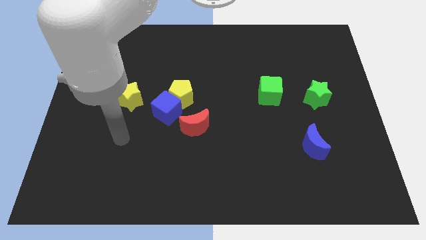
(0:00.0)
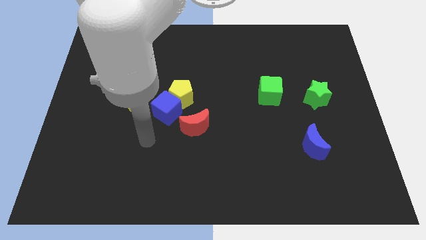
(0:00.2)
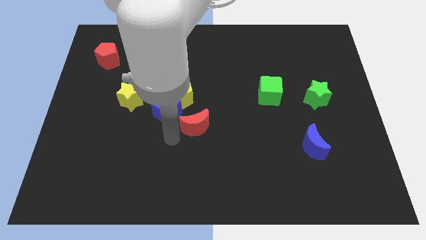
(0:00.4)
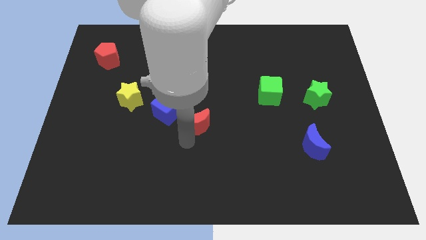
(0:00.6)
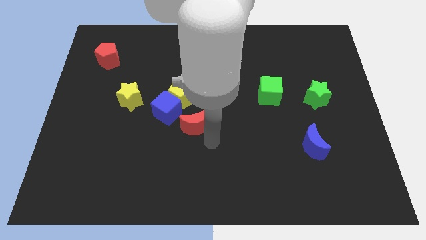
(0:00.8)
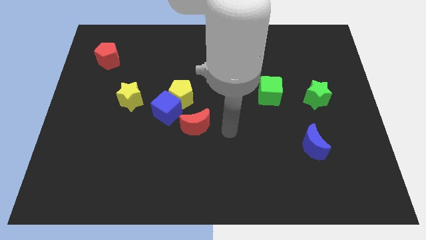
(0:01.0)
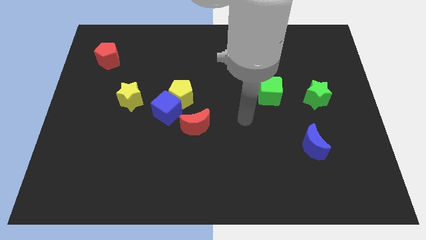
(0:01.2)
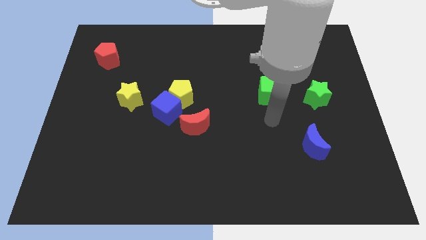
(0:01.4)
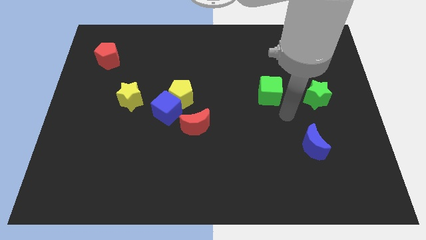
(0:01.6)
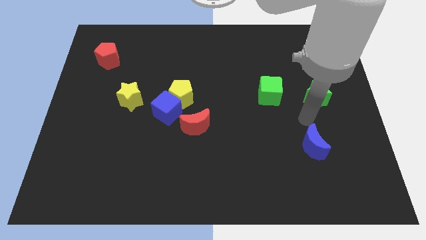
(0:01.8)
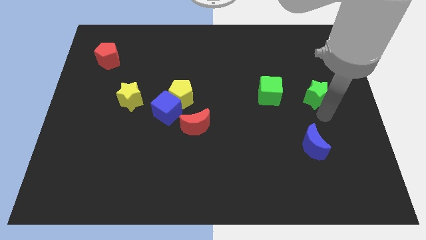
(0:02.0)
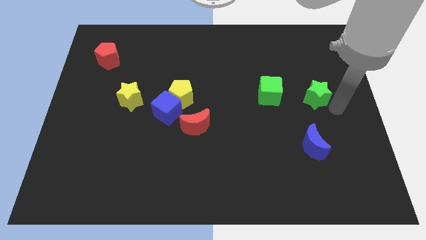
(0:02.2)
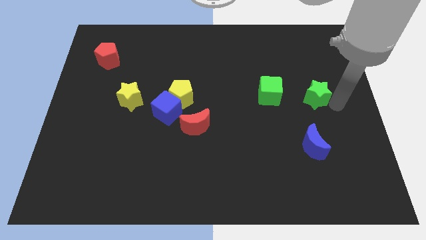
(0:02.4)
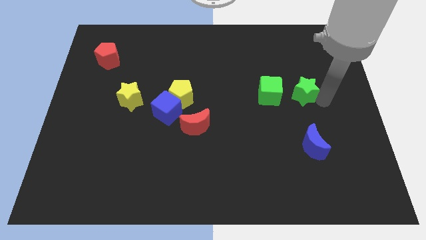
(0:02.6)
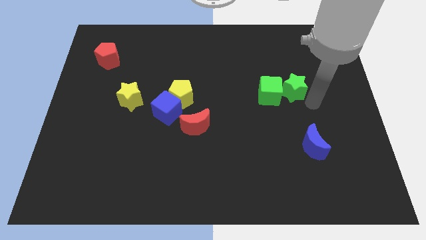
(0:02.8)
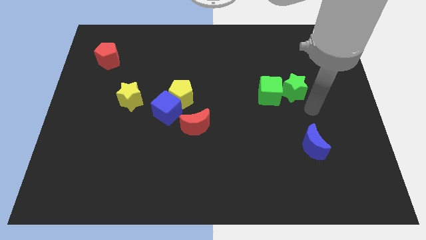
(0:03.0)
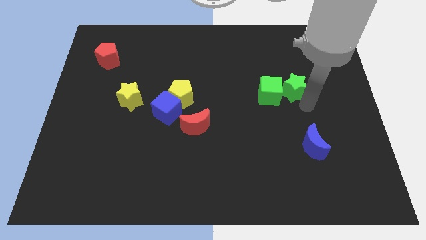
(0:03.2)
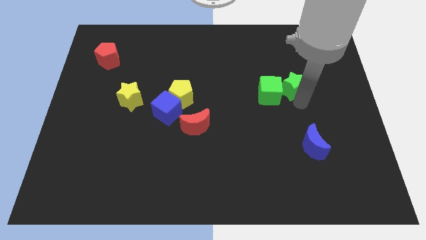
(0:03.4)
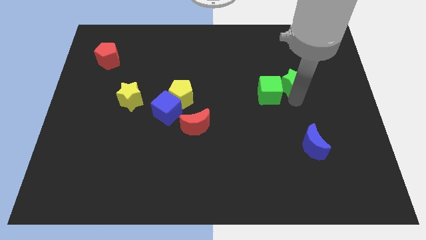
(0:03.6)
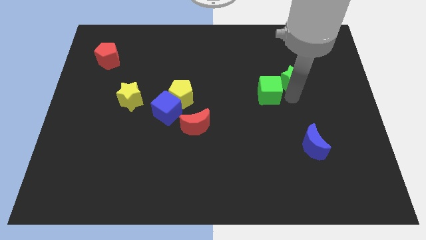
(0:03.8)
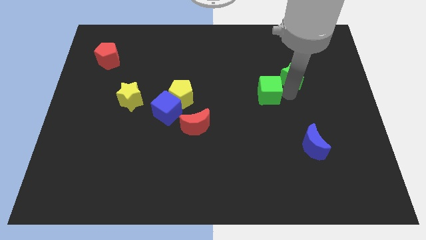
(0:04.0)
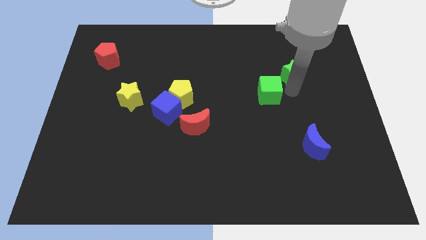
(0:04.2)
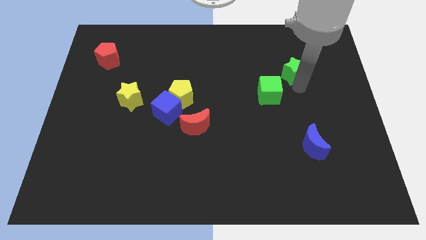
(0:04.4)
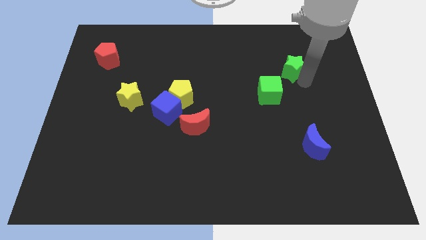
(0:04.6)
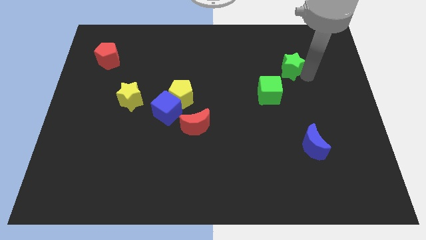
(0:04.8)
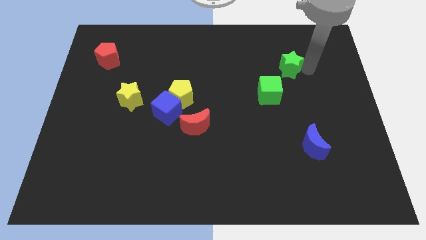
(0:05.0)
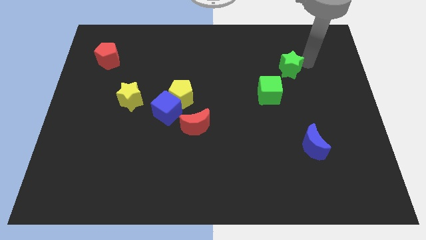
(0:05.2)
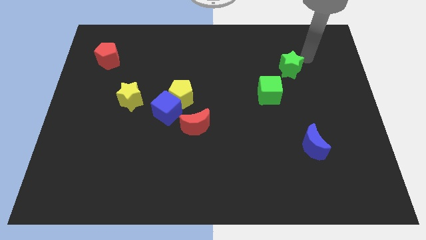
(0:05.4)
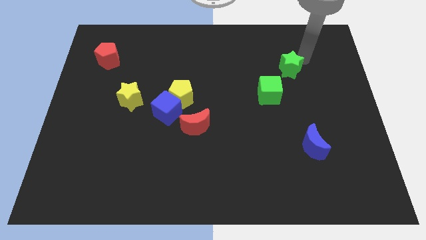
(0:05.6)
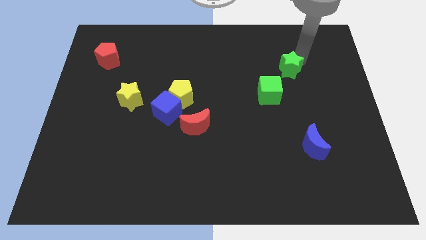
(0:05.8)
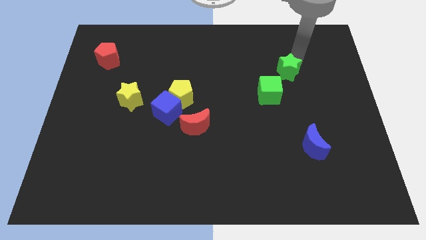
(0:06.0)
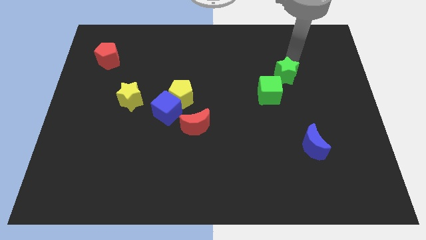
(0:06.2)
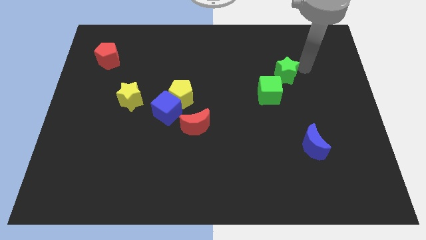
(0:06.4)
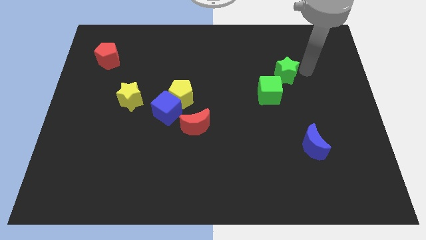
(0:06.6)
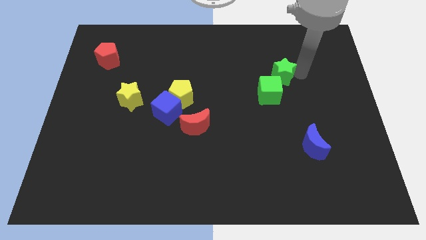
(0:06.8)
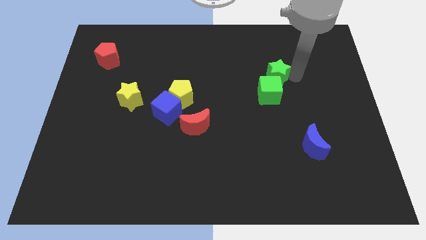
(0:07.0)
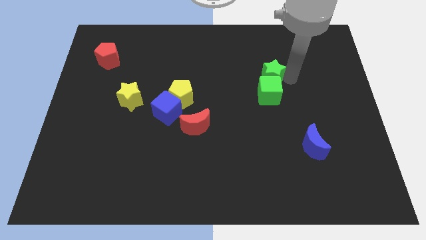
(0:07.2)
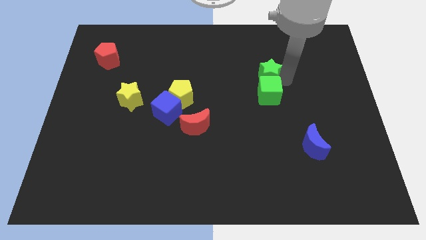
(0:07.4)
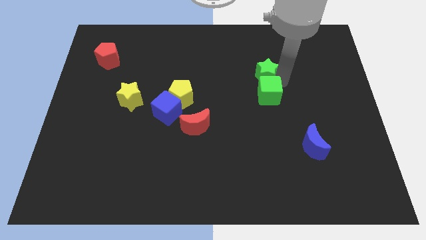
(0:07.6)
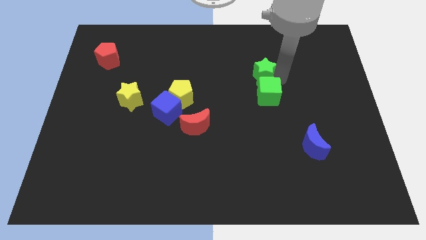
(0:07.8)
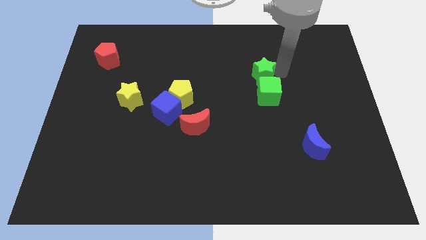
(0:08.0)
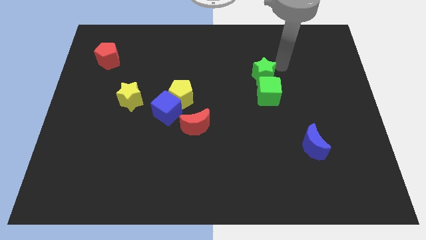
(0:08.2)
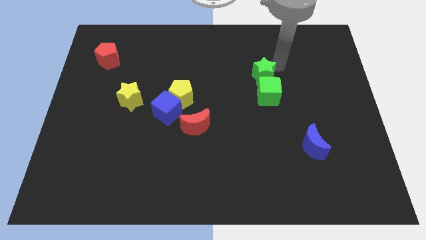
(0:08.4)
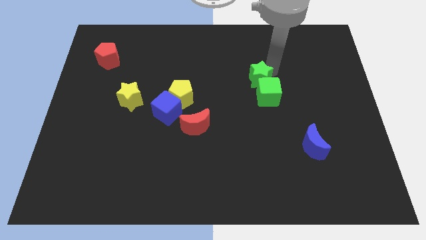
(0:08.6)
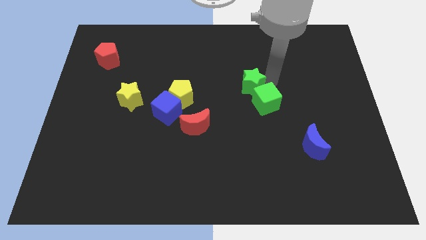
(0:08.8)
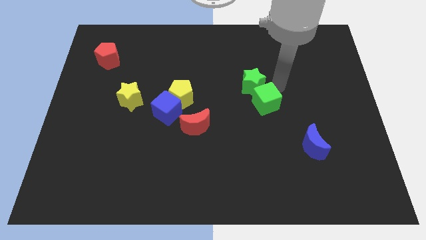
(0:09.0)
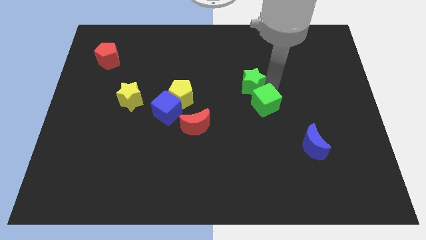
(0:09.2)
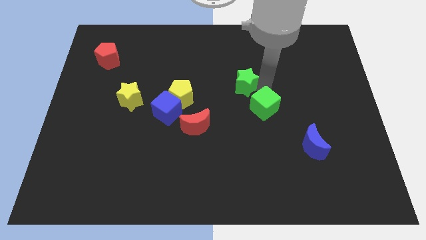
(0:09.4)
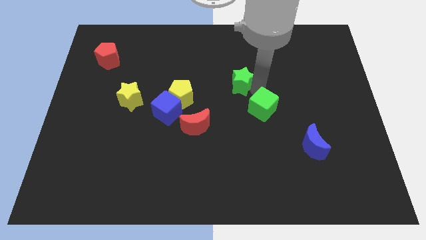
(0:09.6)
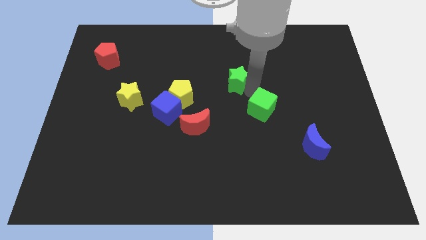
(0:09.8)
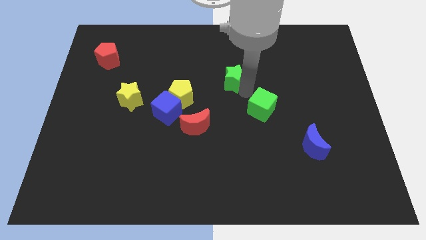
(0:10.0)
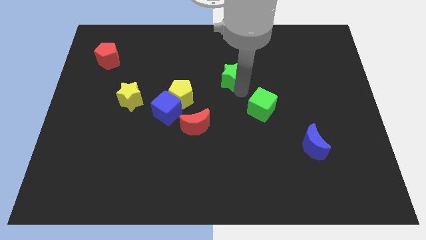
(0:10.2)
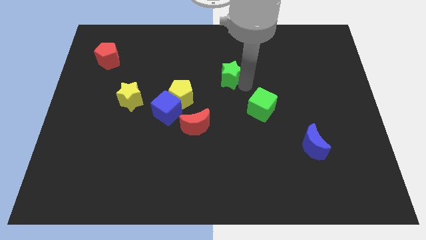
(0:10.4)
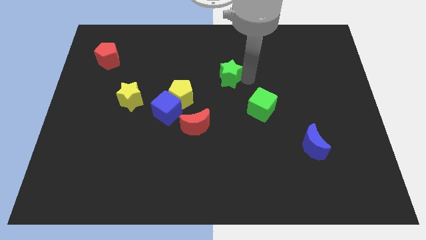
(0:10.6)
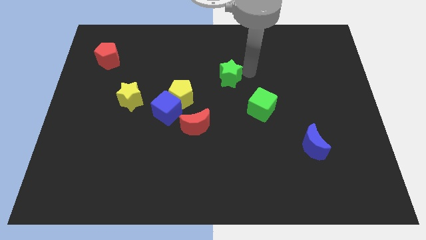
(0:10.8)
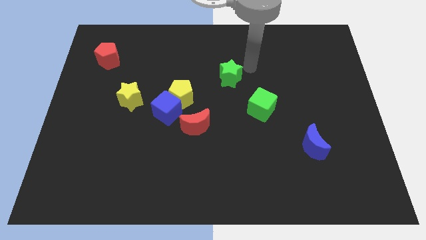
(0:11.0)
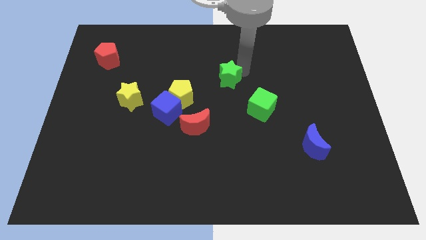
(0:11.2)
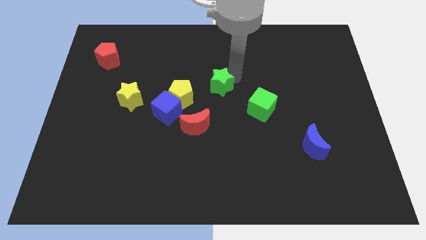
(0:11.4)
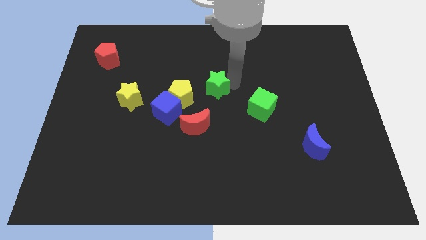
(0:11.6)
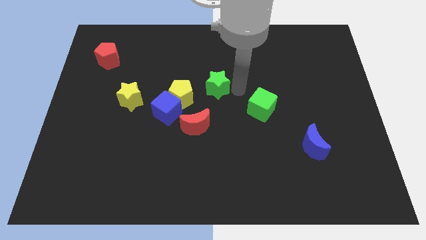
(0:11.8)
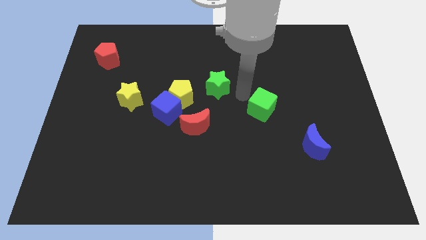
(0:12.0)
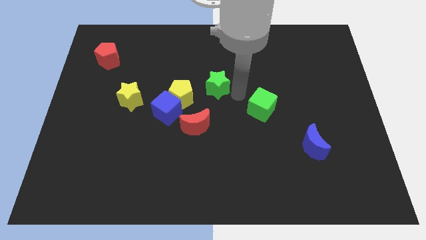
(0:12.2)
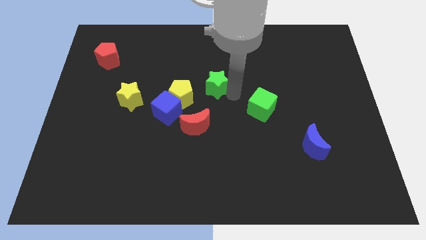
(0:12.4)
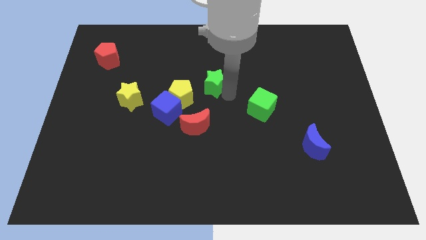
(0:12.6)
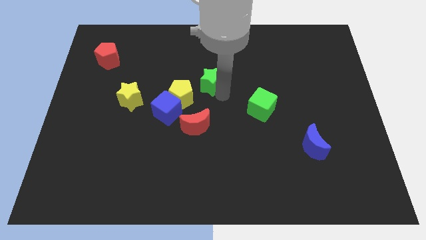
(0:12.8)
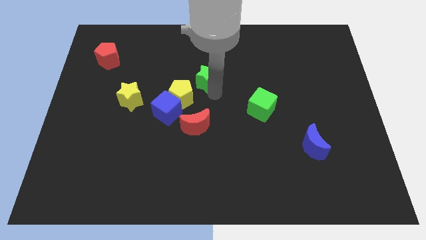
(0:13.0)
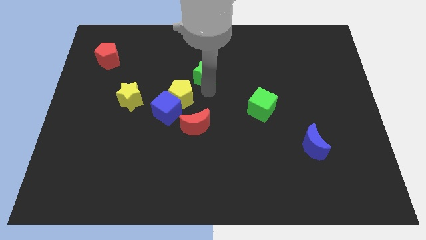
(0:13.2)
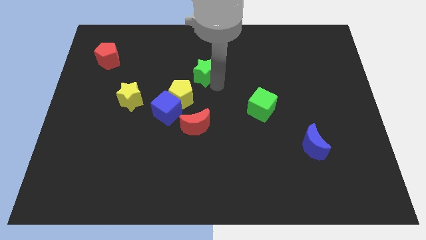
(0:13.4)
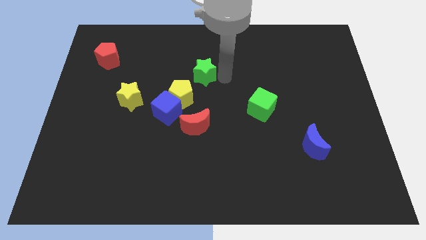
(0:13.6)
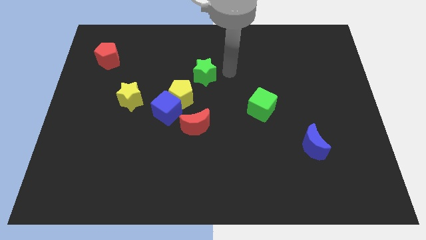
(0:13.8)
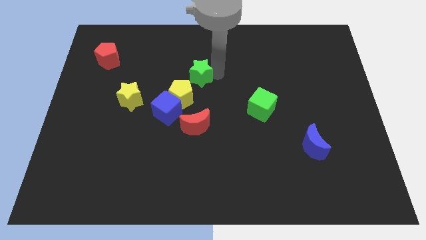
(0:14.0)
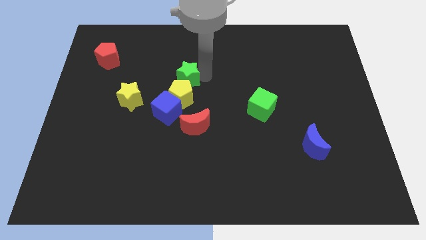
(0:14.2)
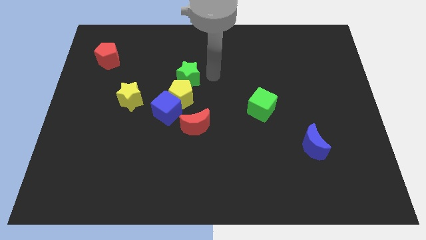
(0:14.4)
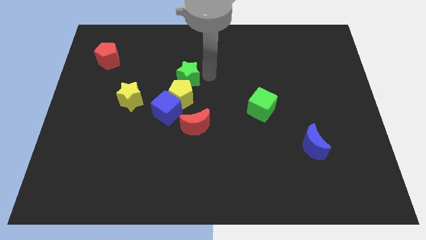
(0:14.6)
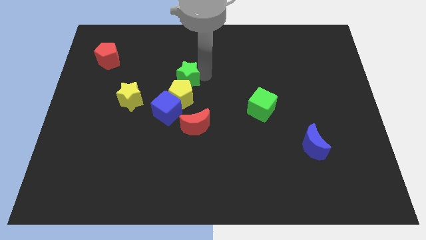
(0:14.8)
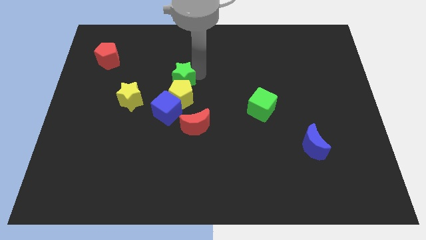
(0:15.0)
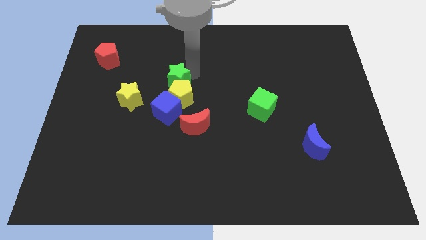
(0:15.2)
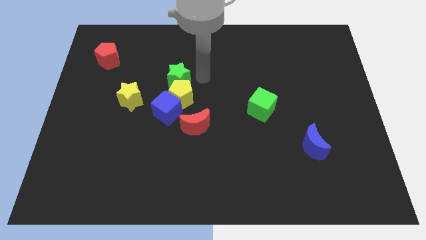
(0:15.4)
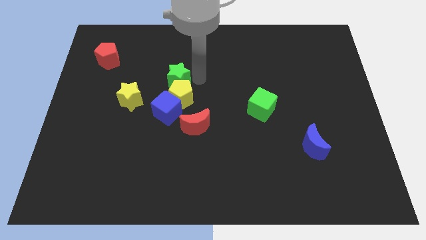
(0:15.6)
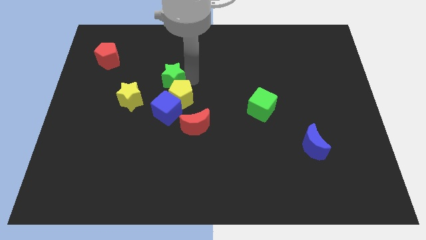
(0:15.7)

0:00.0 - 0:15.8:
slide the green star to the top right side of the yellow star
